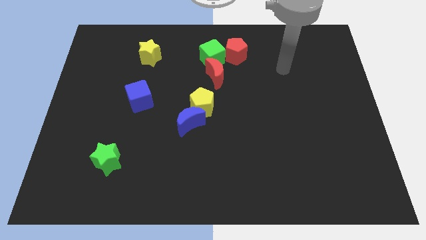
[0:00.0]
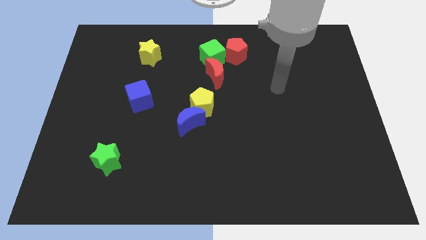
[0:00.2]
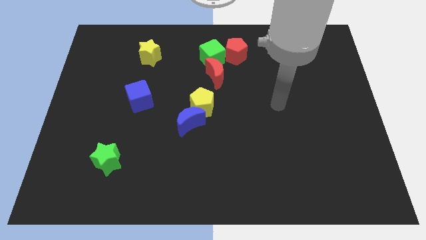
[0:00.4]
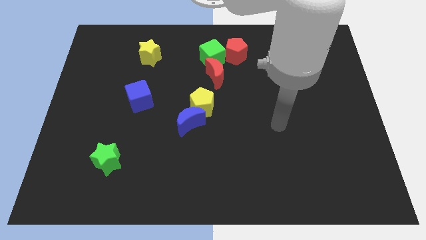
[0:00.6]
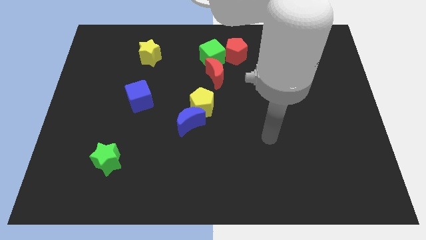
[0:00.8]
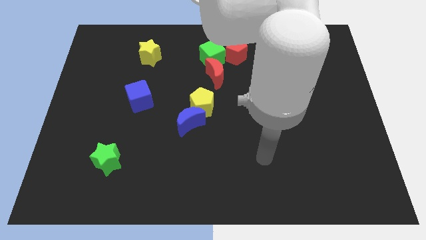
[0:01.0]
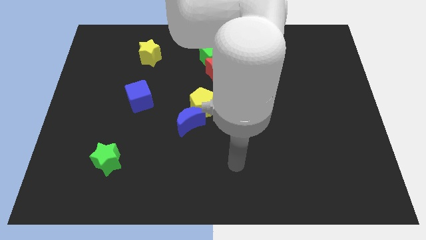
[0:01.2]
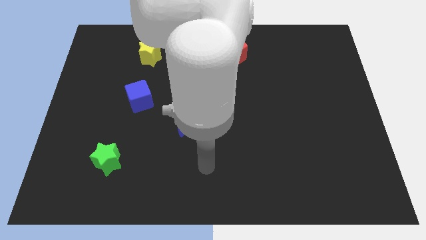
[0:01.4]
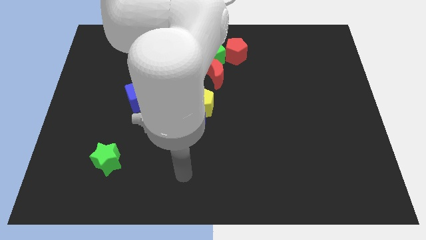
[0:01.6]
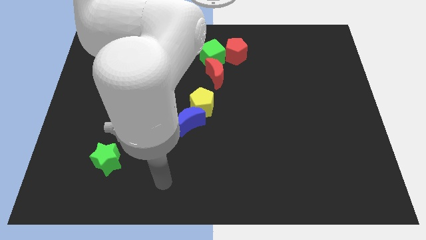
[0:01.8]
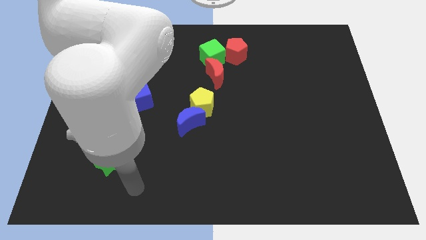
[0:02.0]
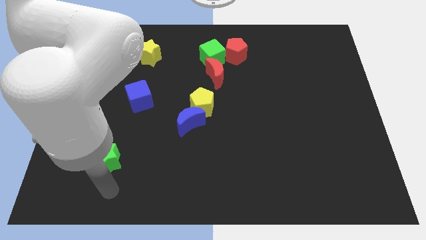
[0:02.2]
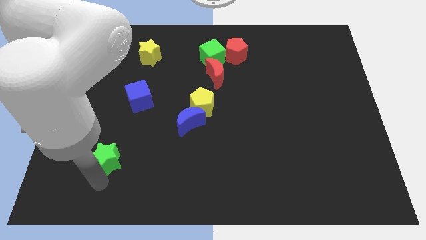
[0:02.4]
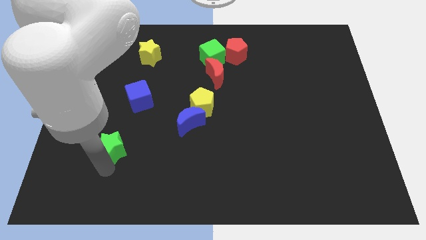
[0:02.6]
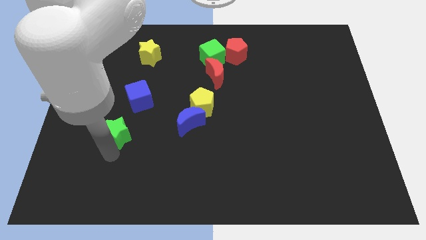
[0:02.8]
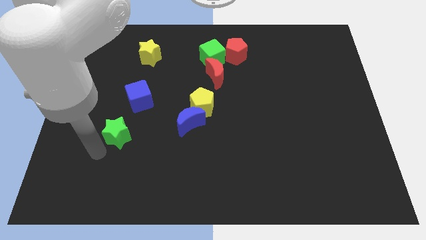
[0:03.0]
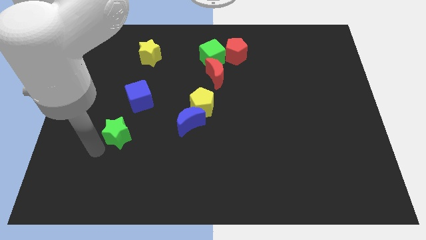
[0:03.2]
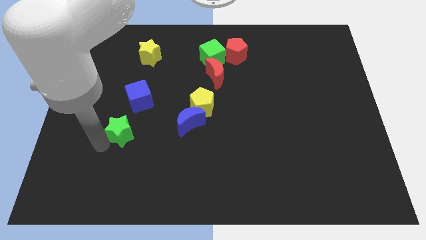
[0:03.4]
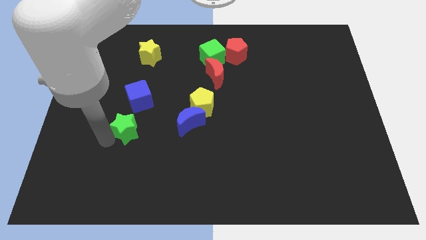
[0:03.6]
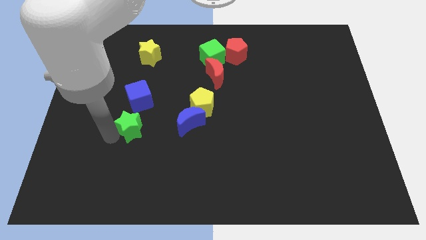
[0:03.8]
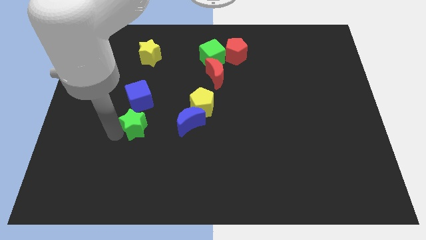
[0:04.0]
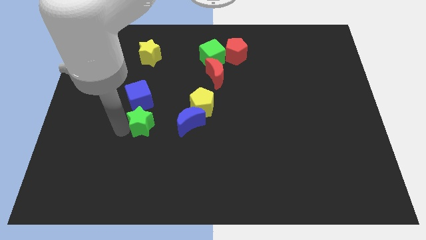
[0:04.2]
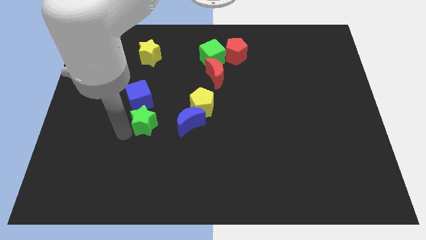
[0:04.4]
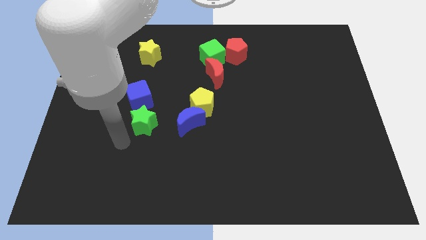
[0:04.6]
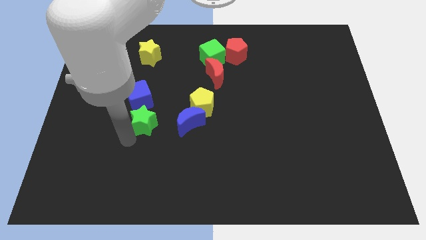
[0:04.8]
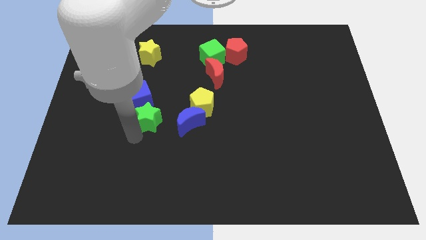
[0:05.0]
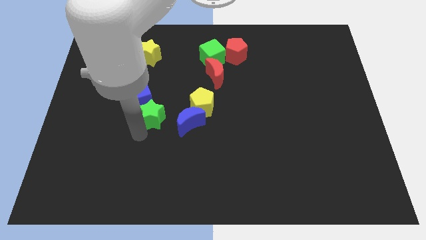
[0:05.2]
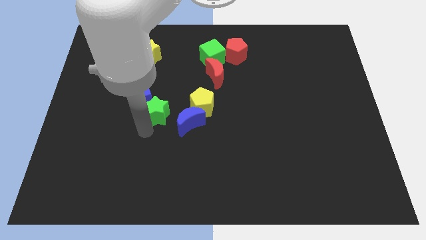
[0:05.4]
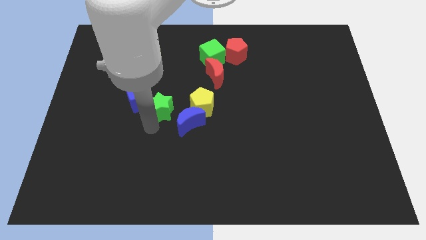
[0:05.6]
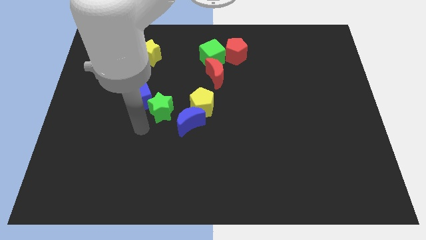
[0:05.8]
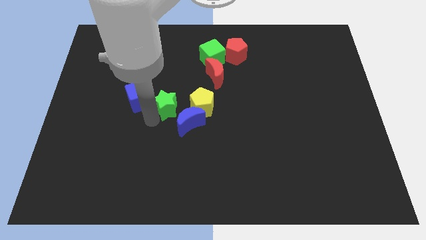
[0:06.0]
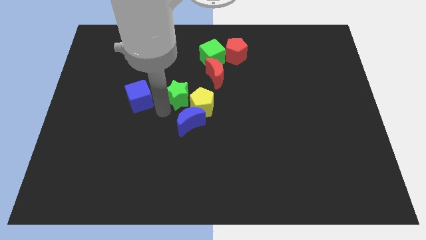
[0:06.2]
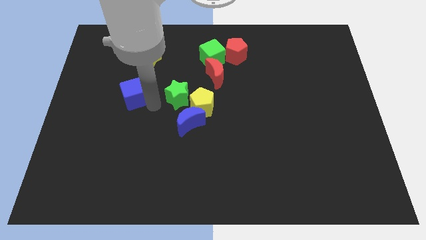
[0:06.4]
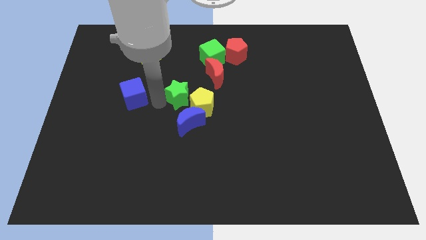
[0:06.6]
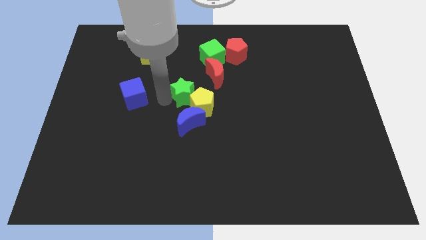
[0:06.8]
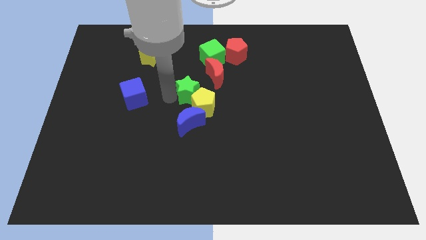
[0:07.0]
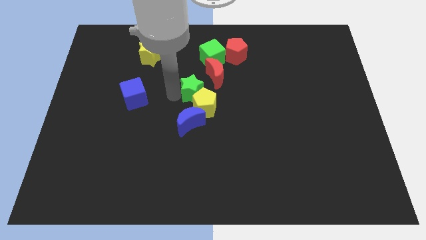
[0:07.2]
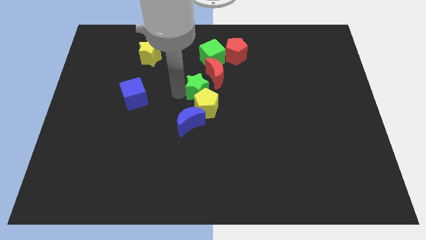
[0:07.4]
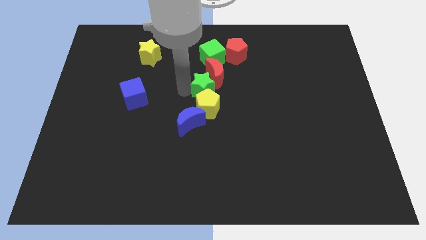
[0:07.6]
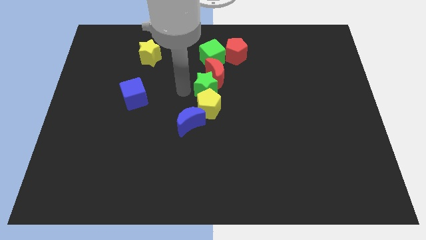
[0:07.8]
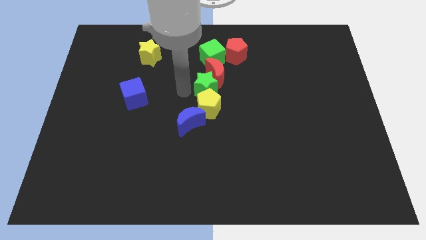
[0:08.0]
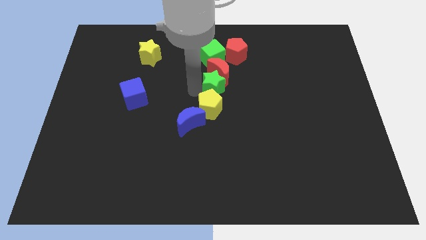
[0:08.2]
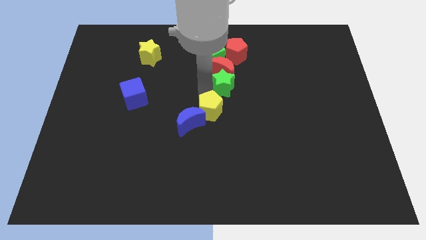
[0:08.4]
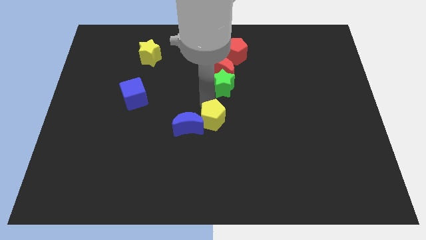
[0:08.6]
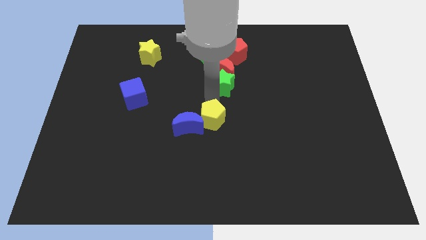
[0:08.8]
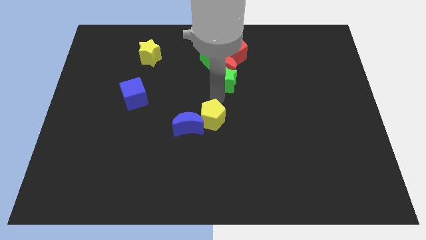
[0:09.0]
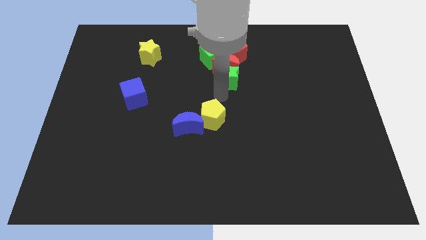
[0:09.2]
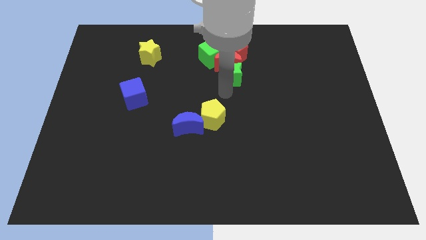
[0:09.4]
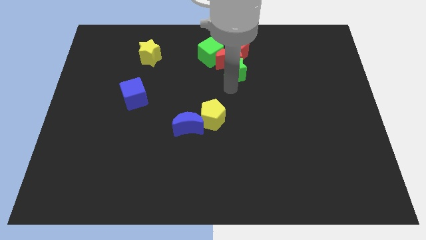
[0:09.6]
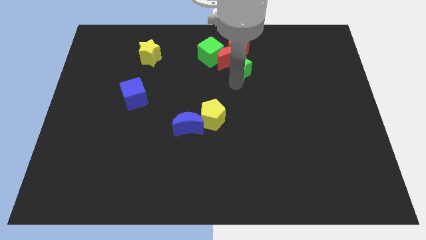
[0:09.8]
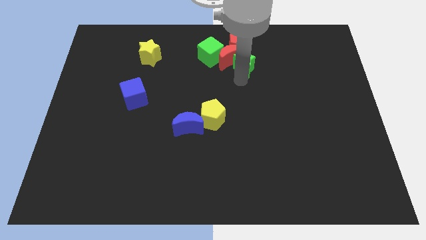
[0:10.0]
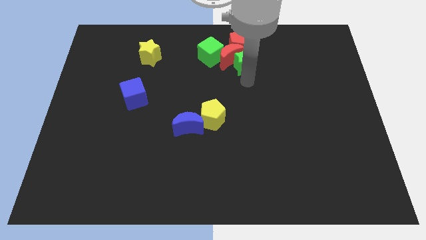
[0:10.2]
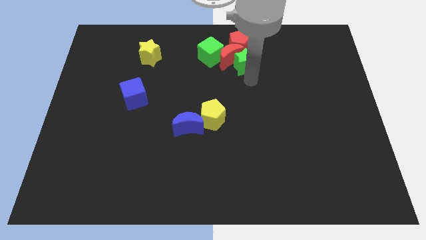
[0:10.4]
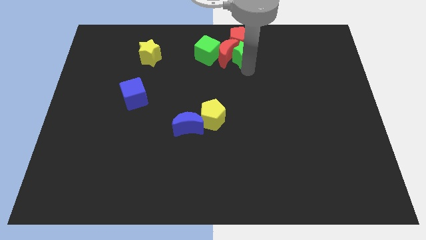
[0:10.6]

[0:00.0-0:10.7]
move the green star to the red pentagon

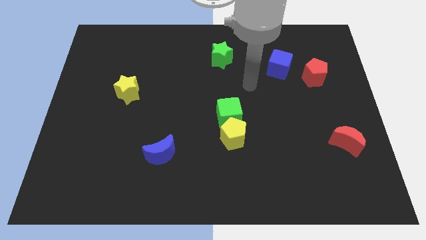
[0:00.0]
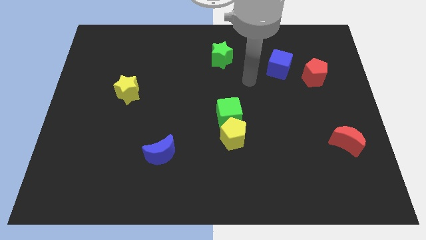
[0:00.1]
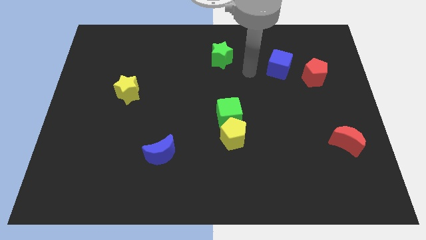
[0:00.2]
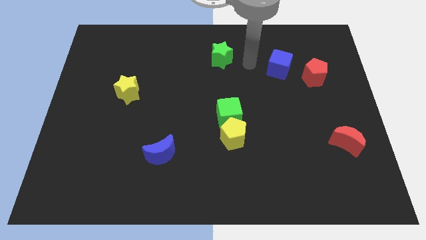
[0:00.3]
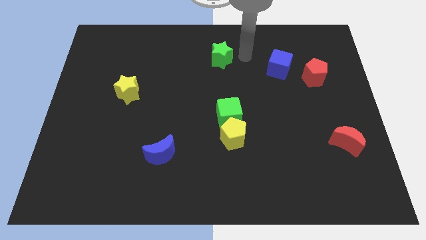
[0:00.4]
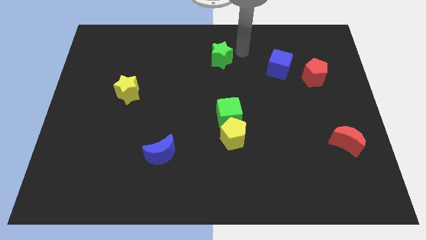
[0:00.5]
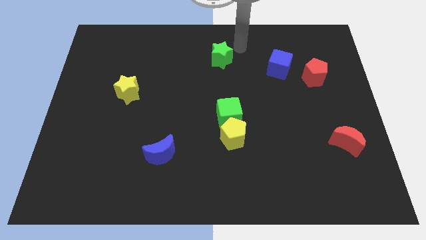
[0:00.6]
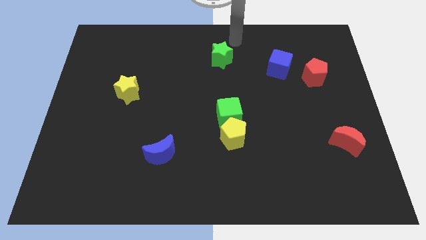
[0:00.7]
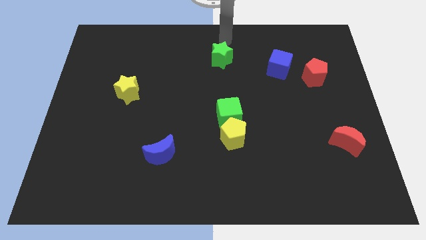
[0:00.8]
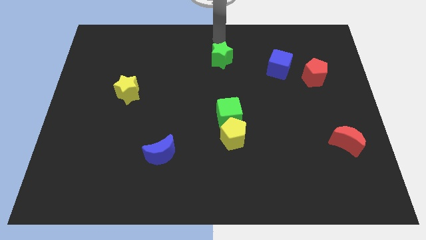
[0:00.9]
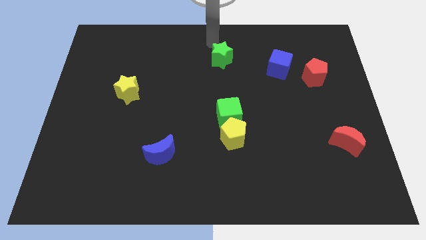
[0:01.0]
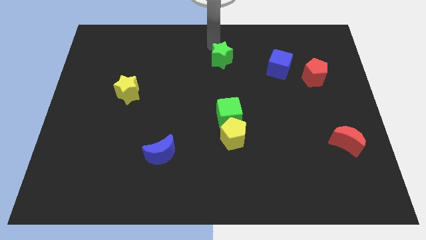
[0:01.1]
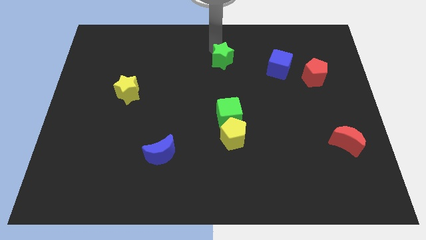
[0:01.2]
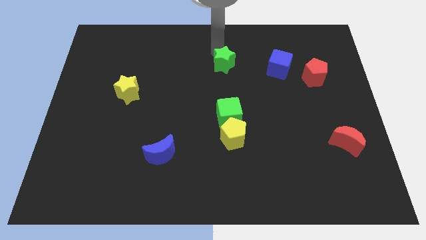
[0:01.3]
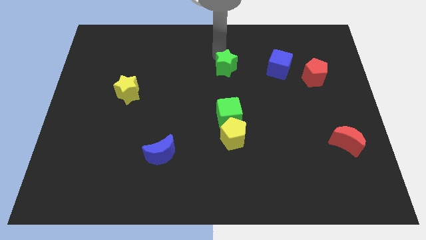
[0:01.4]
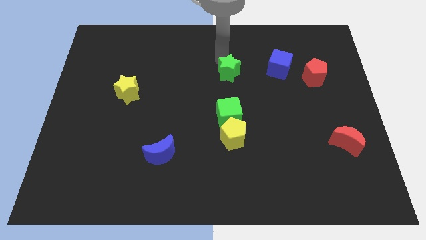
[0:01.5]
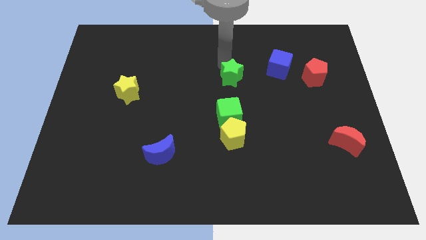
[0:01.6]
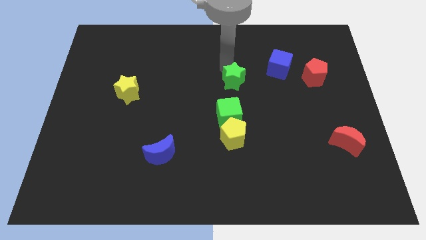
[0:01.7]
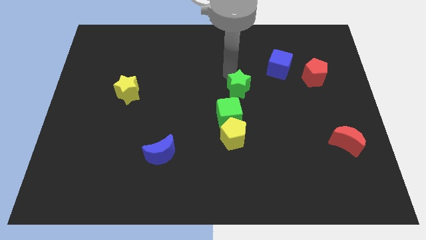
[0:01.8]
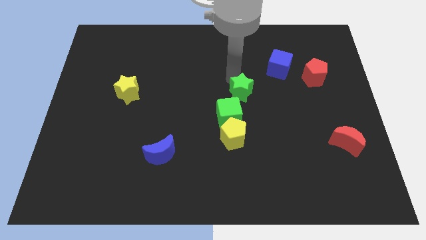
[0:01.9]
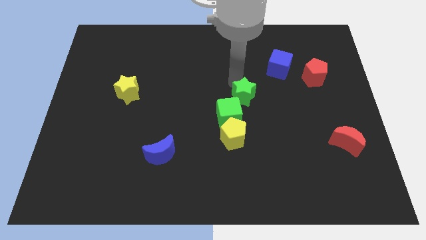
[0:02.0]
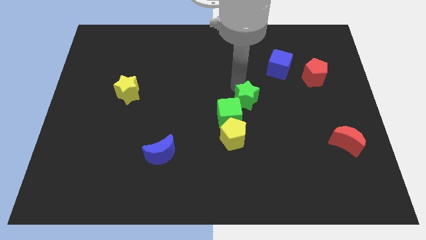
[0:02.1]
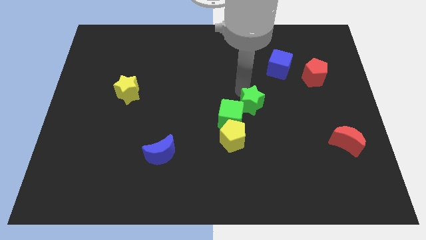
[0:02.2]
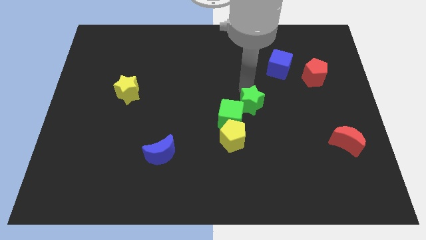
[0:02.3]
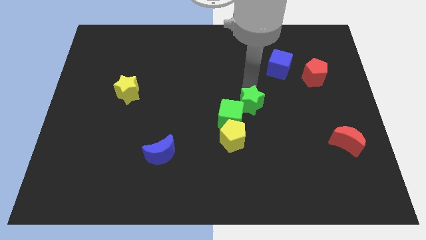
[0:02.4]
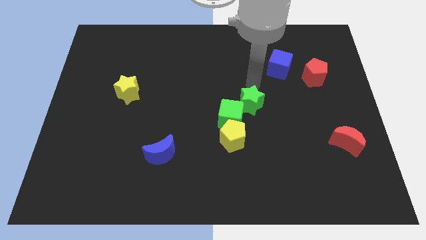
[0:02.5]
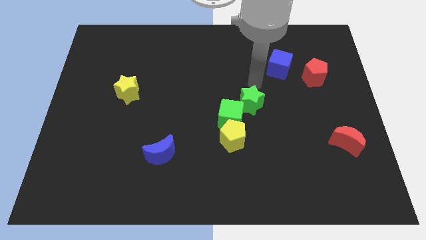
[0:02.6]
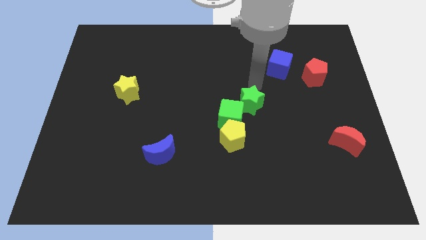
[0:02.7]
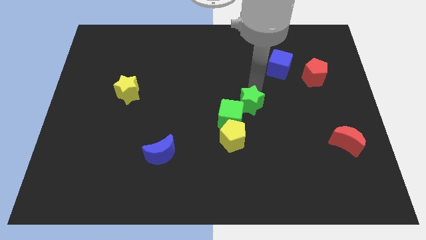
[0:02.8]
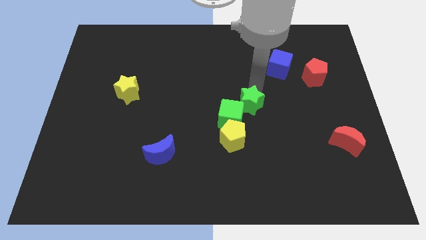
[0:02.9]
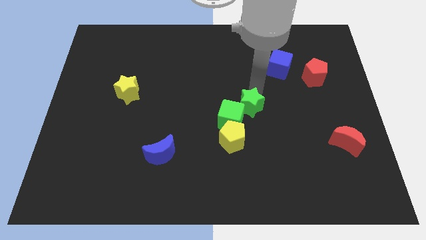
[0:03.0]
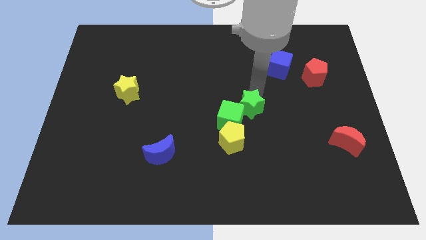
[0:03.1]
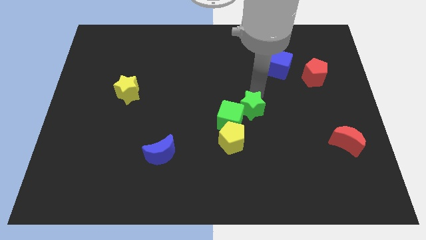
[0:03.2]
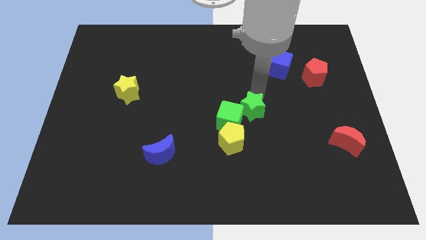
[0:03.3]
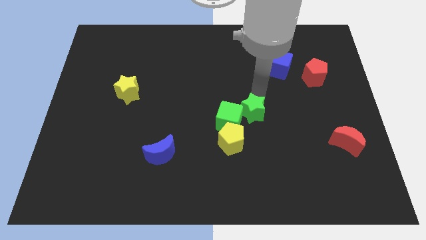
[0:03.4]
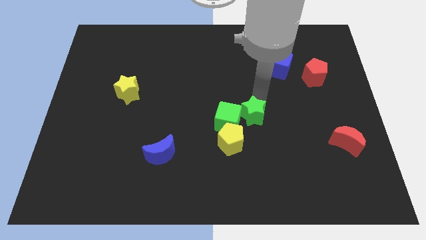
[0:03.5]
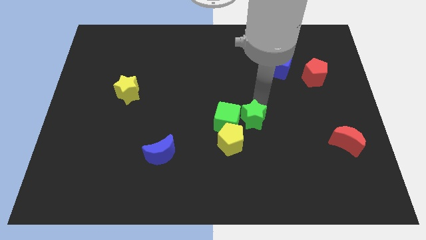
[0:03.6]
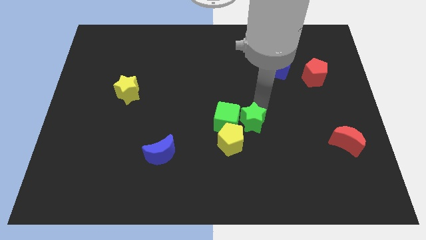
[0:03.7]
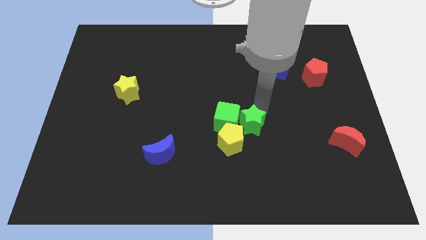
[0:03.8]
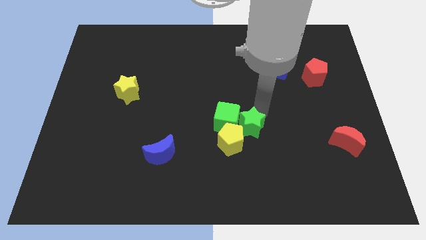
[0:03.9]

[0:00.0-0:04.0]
push the green star next to the yellow pentagon
